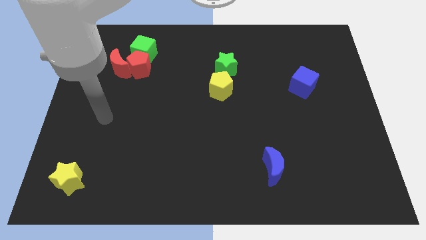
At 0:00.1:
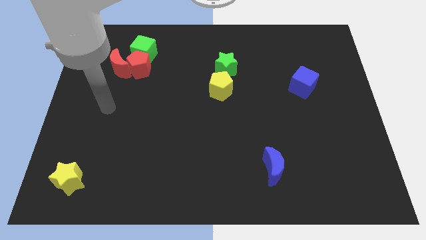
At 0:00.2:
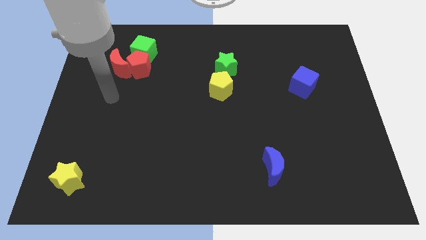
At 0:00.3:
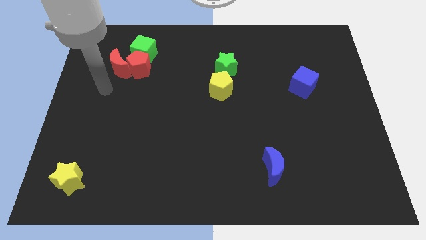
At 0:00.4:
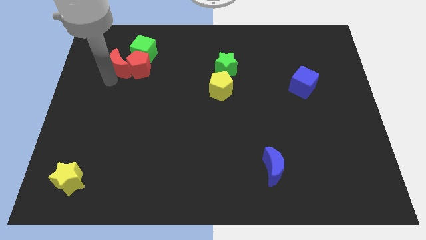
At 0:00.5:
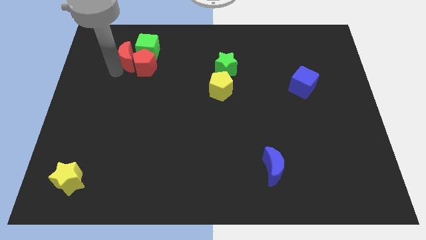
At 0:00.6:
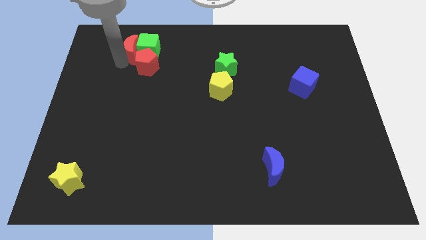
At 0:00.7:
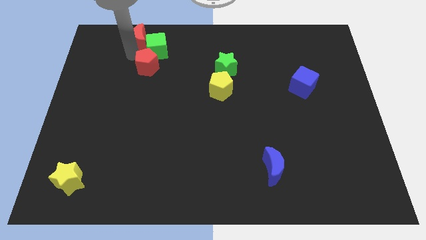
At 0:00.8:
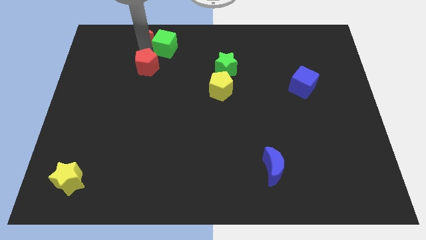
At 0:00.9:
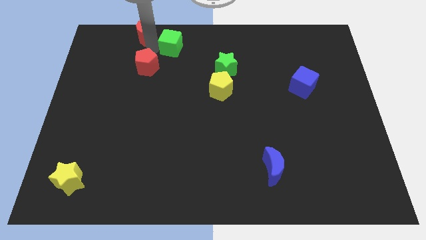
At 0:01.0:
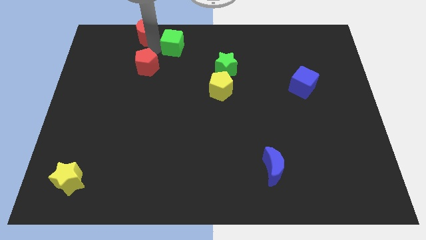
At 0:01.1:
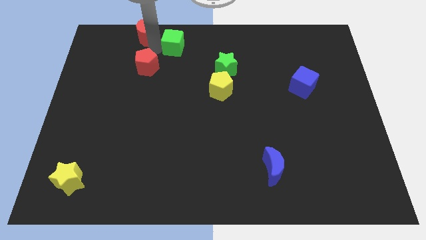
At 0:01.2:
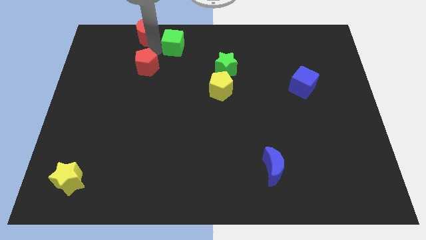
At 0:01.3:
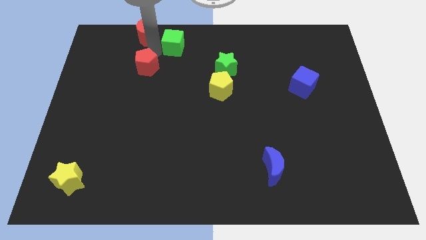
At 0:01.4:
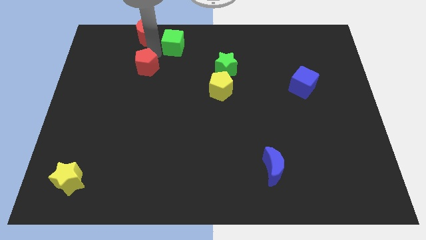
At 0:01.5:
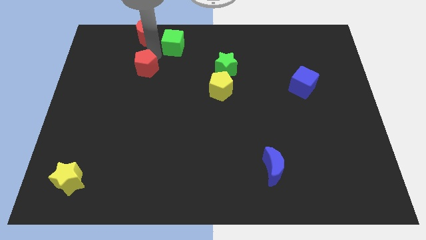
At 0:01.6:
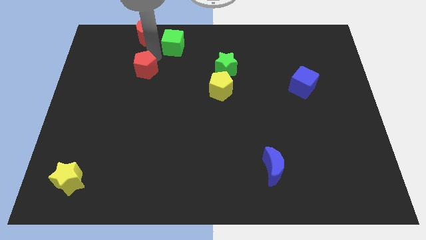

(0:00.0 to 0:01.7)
pull the red pentagon apart from the red moon and green cube

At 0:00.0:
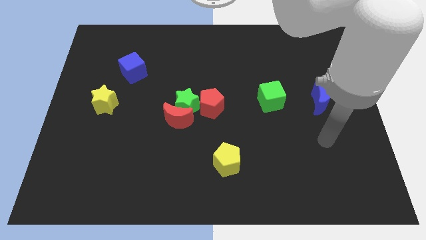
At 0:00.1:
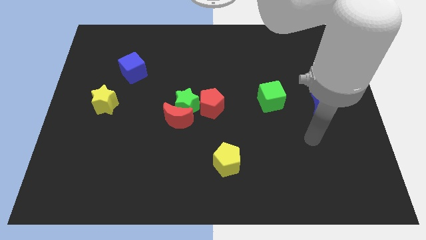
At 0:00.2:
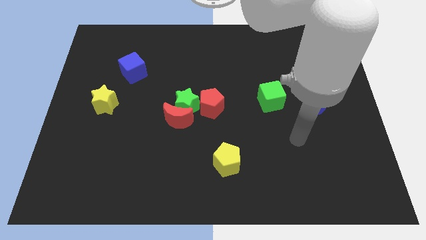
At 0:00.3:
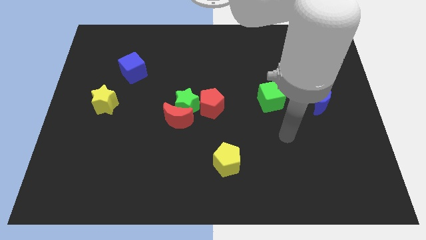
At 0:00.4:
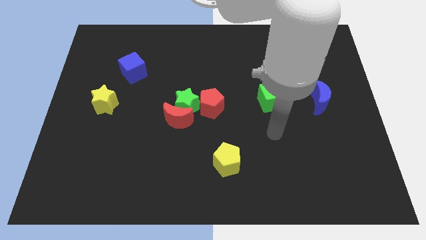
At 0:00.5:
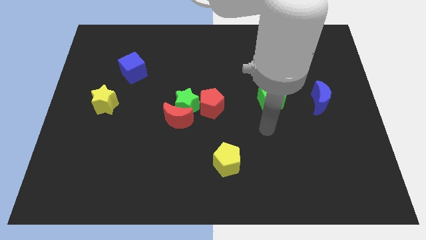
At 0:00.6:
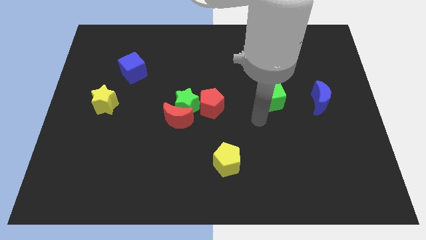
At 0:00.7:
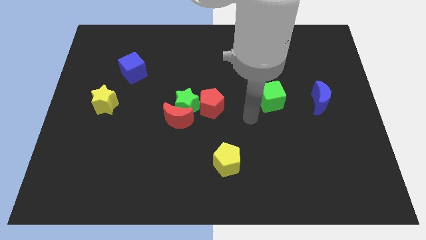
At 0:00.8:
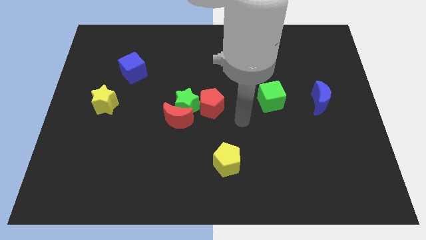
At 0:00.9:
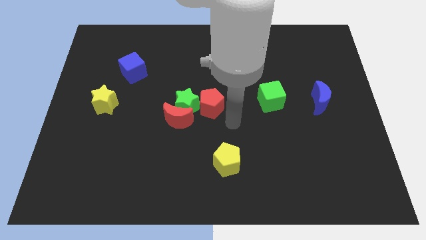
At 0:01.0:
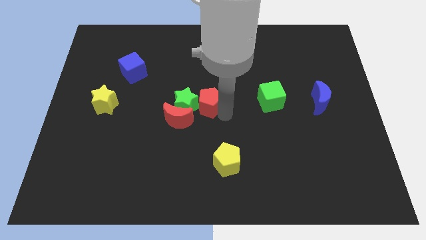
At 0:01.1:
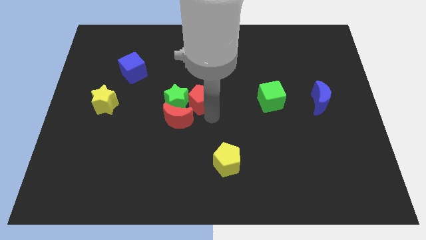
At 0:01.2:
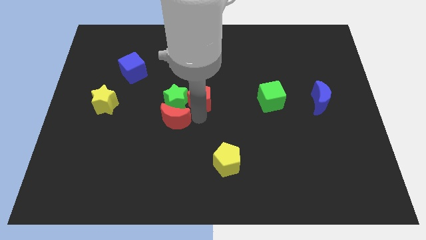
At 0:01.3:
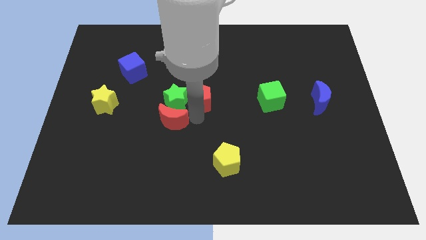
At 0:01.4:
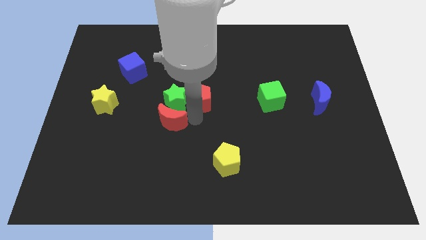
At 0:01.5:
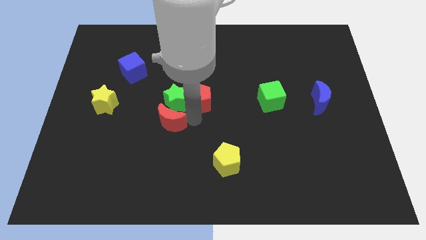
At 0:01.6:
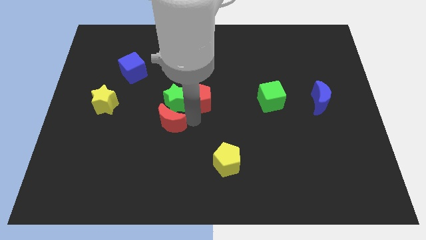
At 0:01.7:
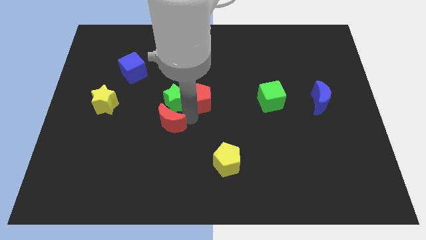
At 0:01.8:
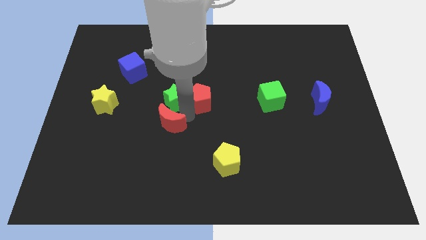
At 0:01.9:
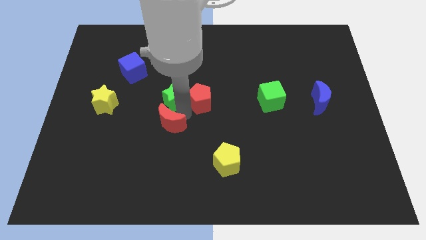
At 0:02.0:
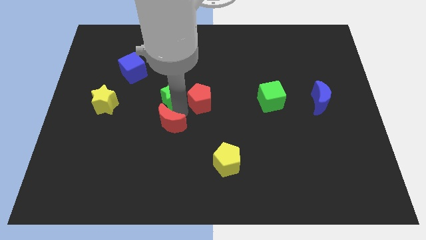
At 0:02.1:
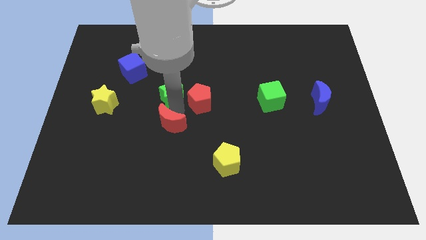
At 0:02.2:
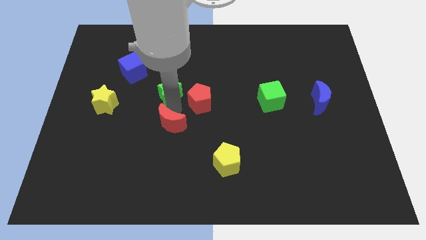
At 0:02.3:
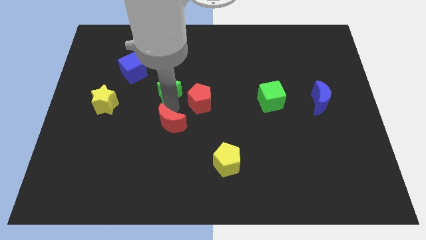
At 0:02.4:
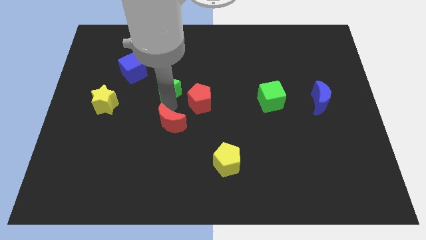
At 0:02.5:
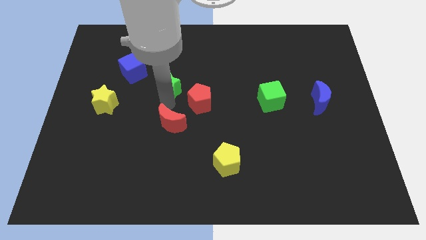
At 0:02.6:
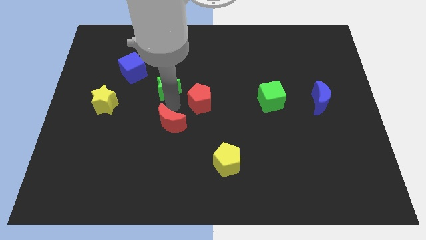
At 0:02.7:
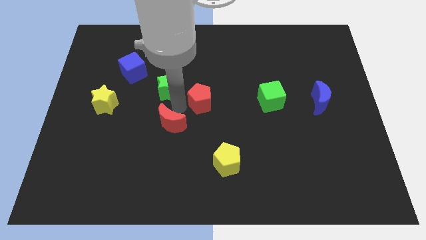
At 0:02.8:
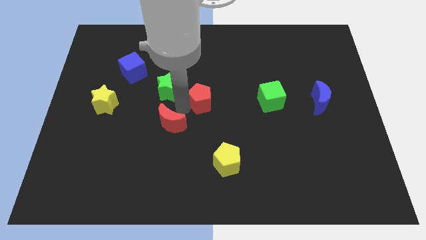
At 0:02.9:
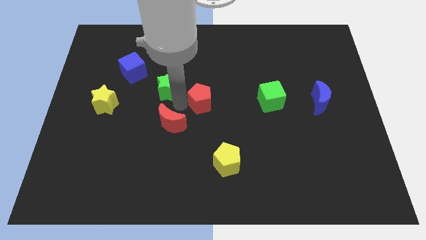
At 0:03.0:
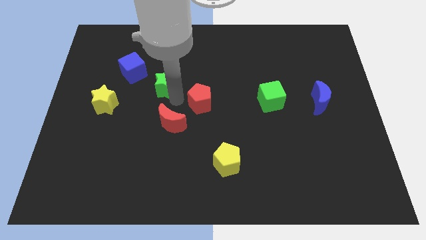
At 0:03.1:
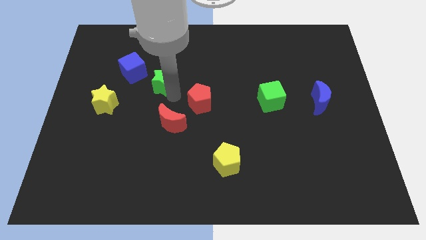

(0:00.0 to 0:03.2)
separate the green star from the red moon and red pentagon

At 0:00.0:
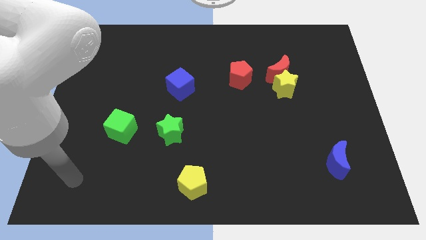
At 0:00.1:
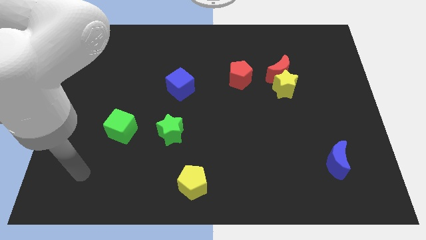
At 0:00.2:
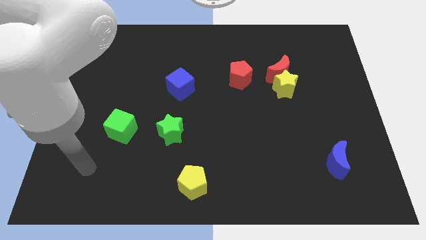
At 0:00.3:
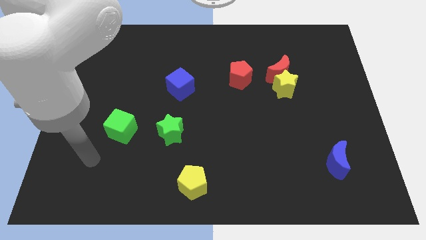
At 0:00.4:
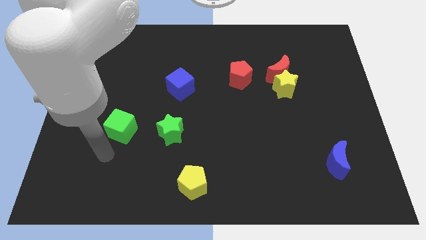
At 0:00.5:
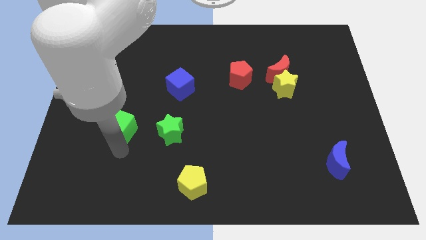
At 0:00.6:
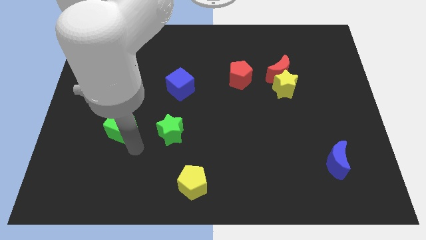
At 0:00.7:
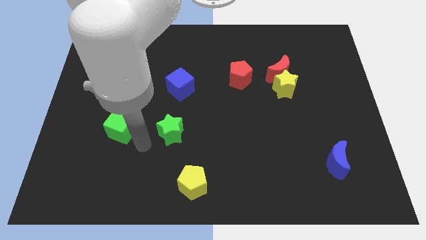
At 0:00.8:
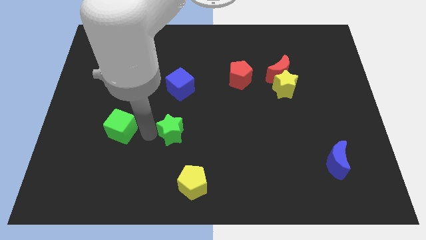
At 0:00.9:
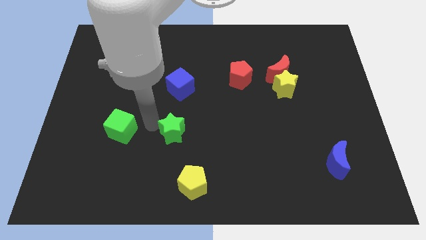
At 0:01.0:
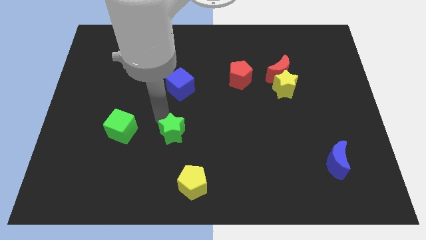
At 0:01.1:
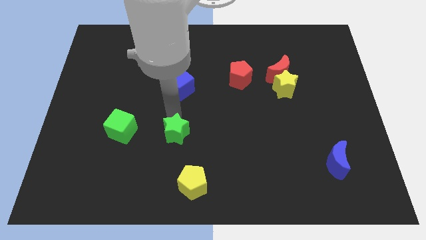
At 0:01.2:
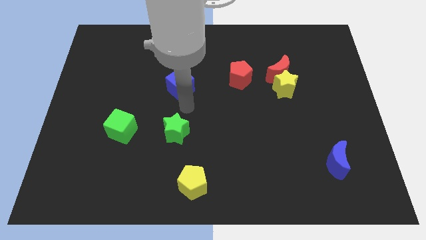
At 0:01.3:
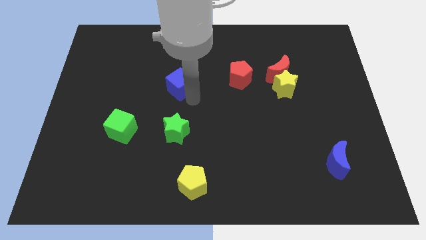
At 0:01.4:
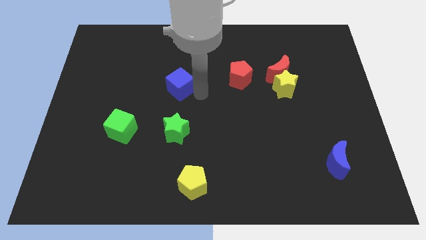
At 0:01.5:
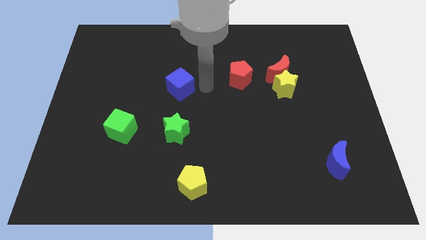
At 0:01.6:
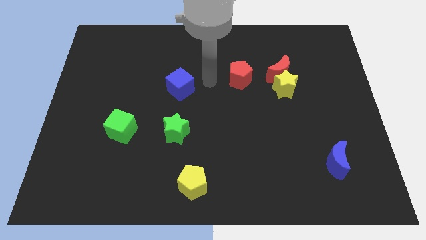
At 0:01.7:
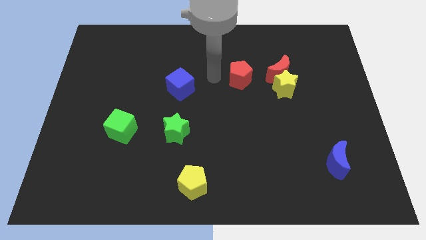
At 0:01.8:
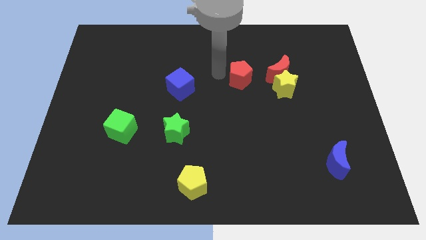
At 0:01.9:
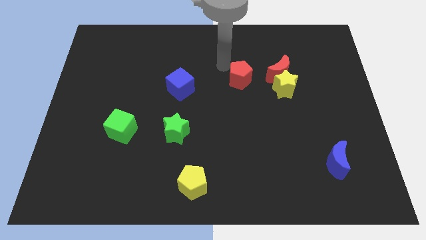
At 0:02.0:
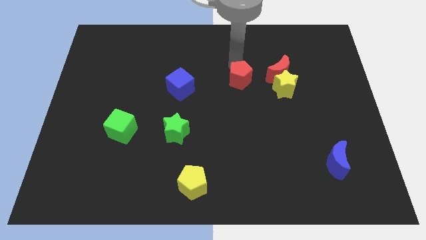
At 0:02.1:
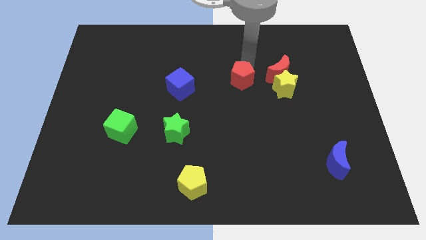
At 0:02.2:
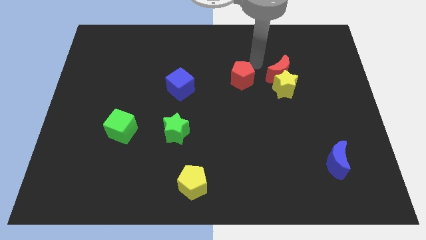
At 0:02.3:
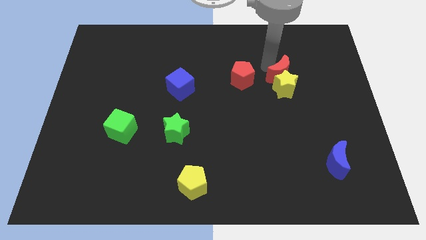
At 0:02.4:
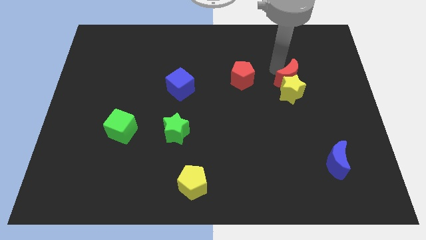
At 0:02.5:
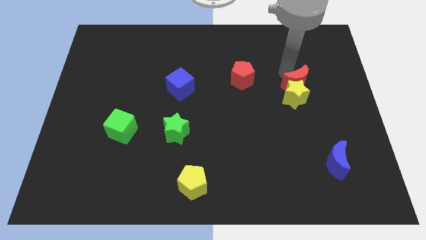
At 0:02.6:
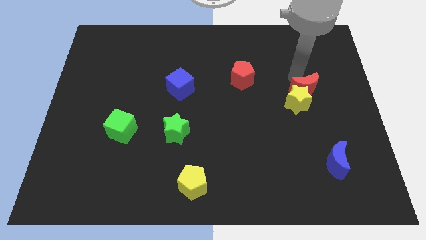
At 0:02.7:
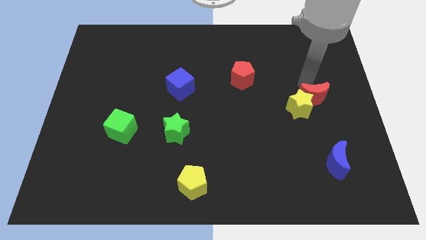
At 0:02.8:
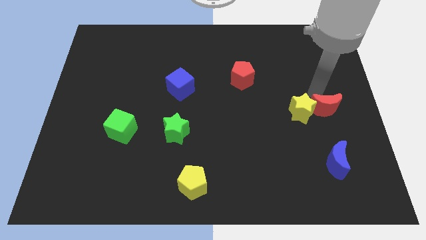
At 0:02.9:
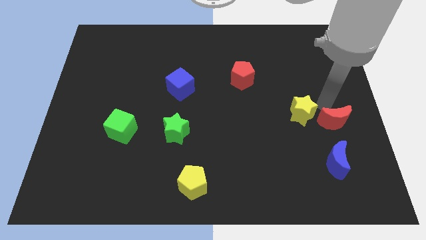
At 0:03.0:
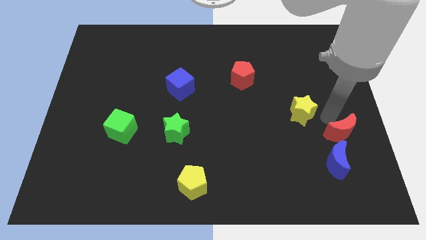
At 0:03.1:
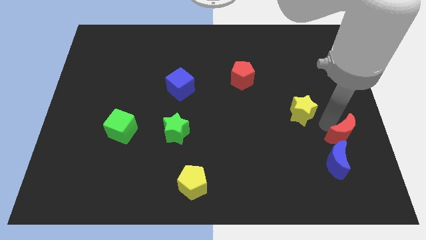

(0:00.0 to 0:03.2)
pull the yellow star apart from the red moon

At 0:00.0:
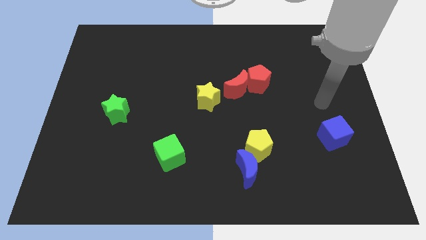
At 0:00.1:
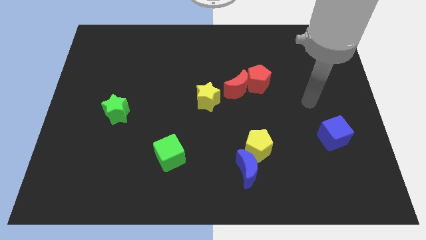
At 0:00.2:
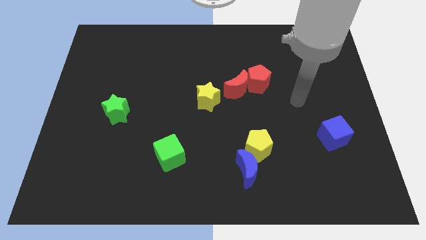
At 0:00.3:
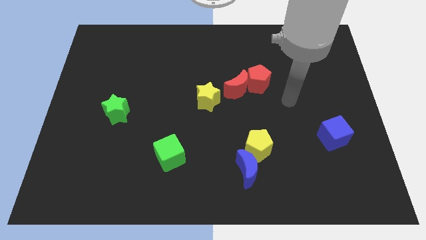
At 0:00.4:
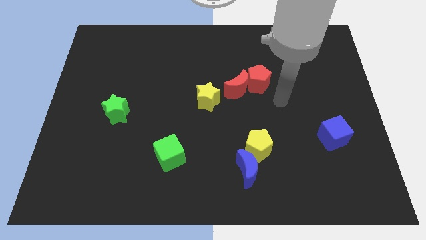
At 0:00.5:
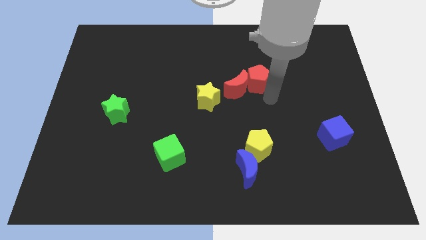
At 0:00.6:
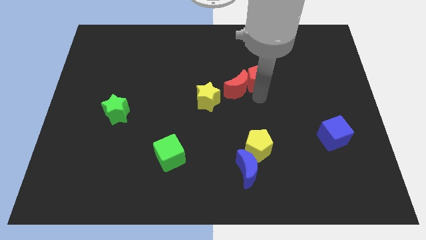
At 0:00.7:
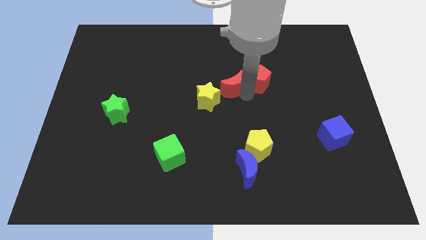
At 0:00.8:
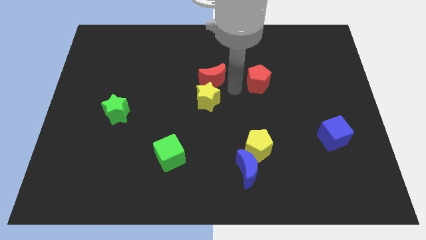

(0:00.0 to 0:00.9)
pull the red pentagon apart from the red moon

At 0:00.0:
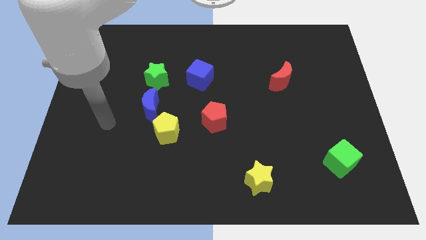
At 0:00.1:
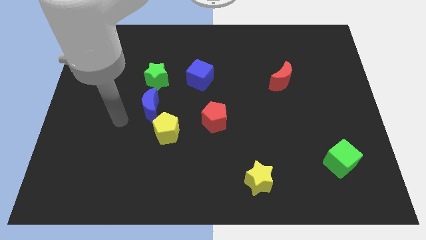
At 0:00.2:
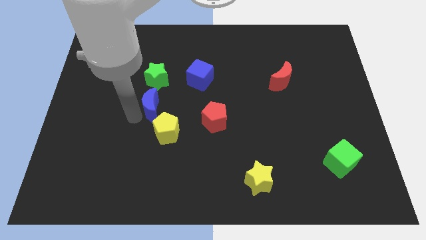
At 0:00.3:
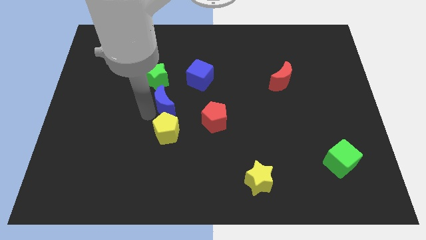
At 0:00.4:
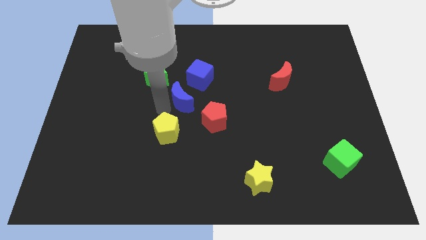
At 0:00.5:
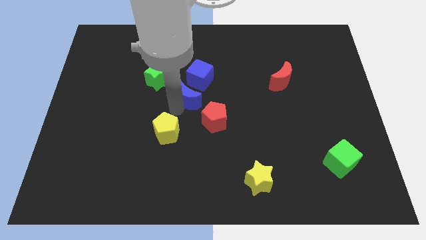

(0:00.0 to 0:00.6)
separate the yellow pentagon from the blue moon
